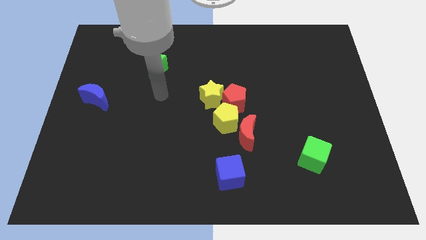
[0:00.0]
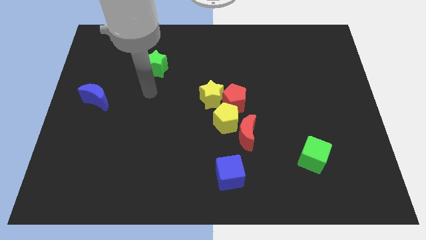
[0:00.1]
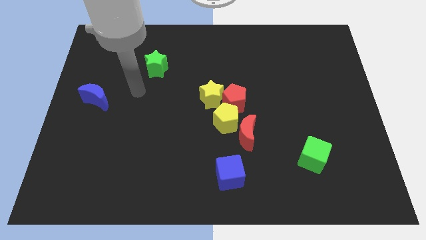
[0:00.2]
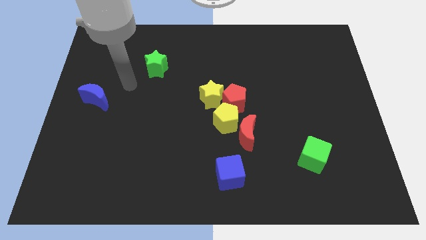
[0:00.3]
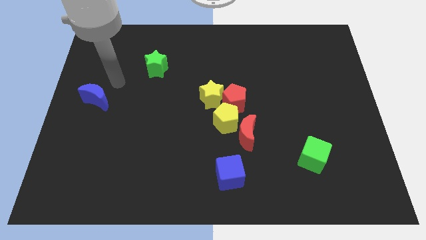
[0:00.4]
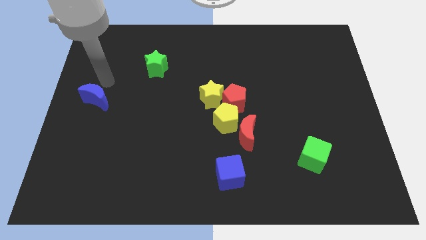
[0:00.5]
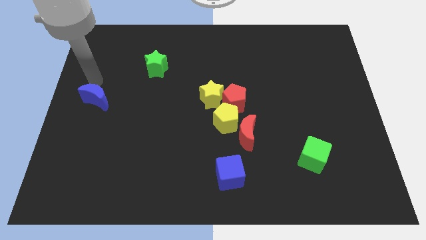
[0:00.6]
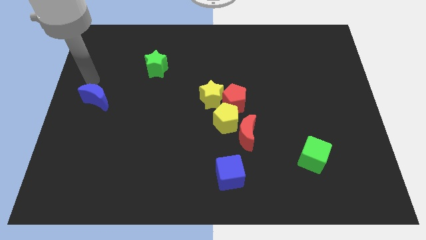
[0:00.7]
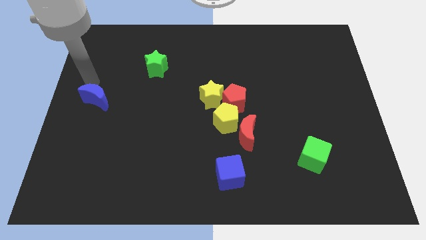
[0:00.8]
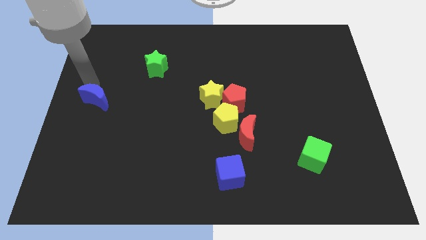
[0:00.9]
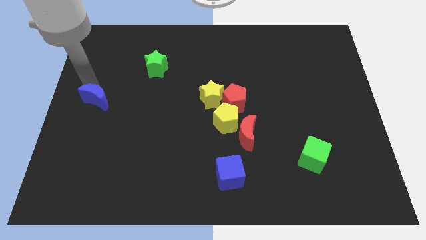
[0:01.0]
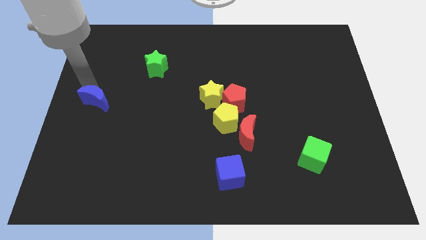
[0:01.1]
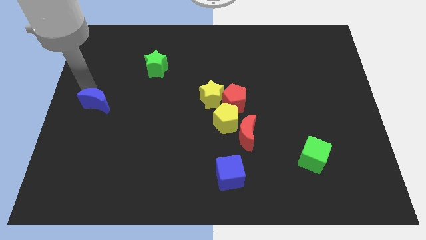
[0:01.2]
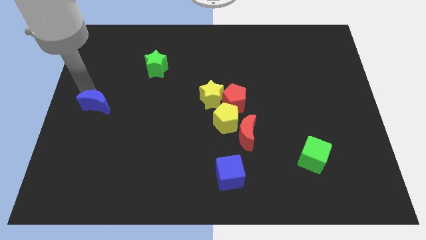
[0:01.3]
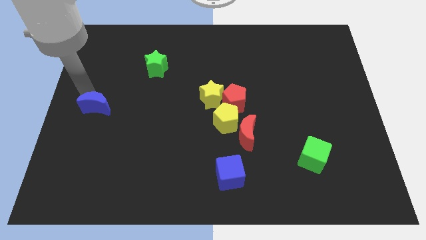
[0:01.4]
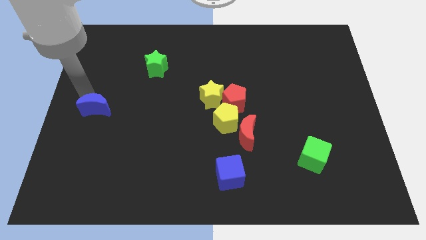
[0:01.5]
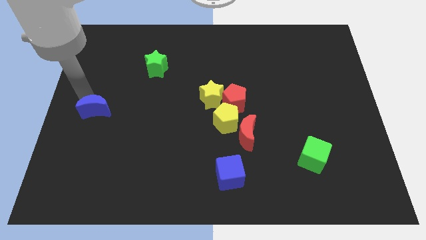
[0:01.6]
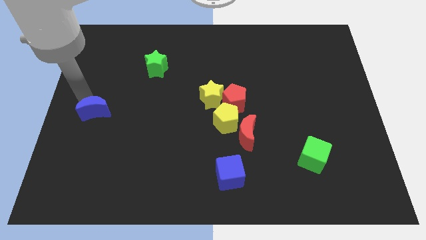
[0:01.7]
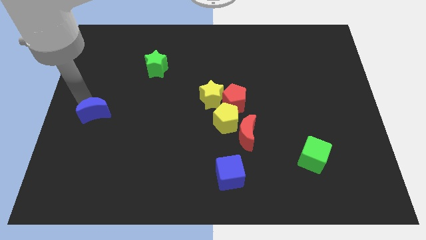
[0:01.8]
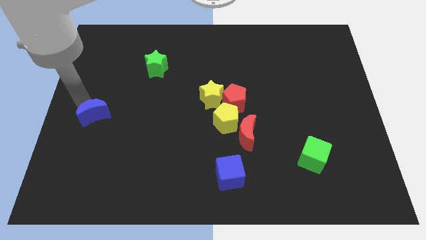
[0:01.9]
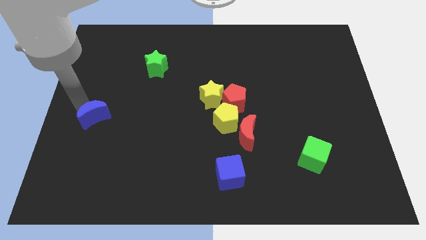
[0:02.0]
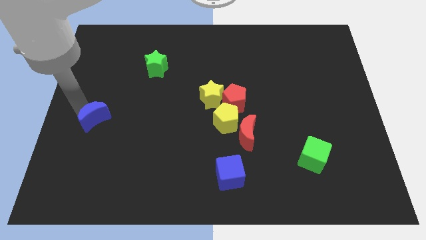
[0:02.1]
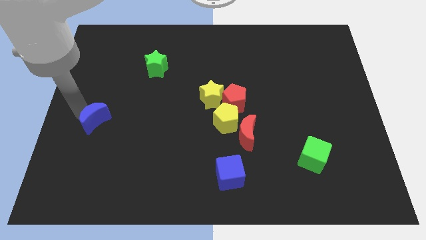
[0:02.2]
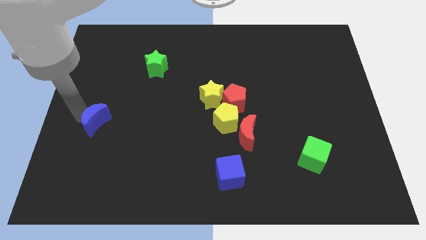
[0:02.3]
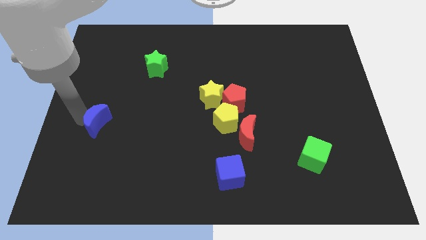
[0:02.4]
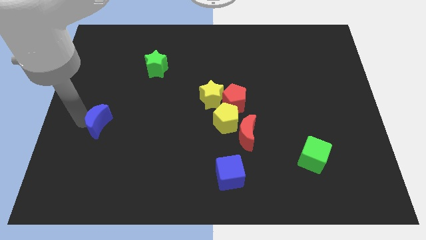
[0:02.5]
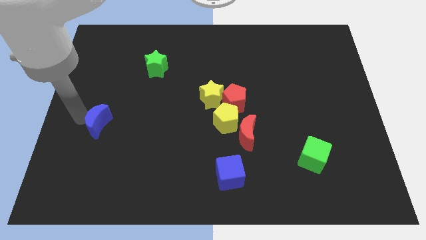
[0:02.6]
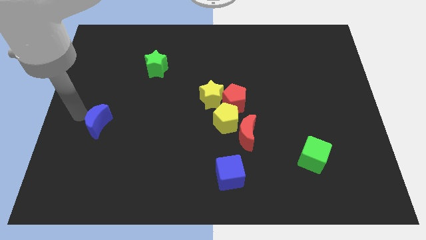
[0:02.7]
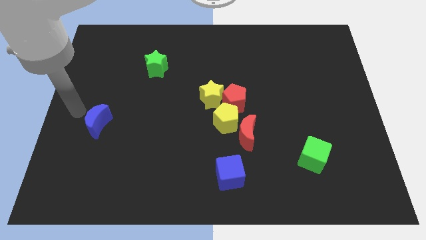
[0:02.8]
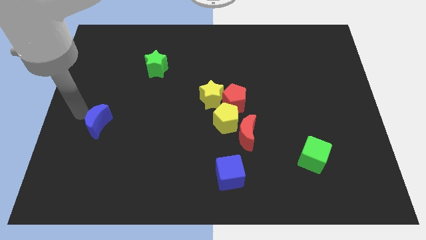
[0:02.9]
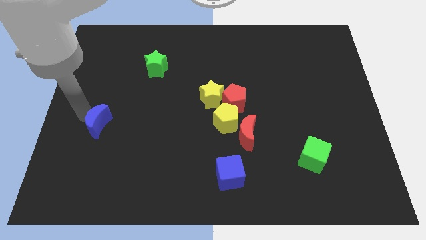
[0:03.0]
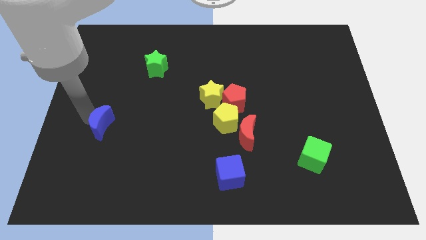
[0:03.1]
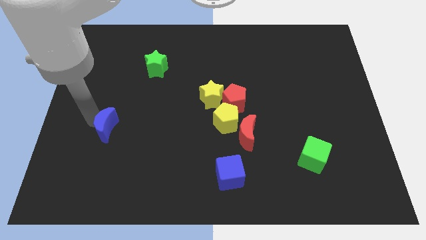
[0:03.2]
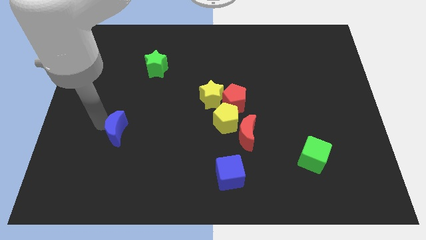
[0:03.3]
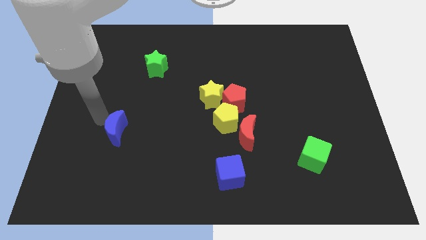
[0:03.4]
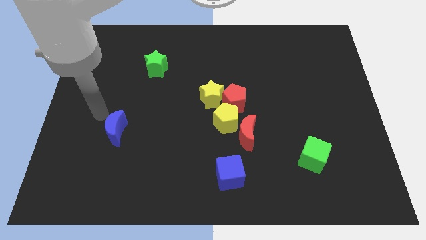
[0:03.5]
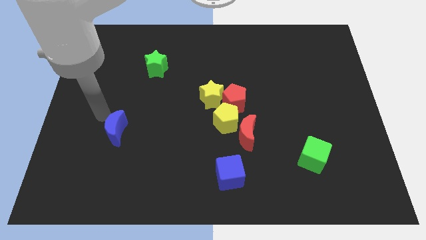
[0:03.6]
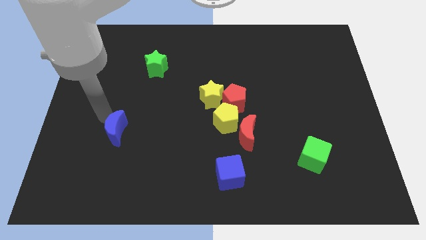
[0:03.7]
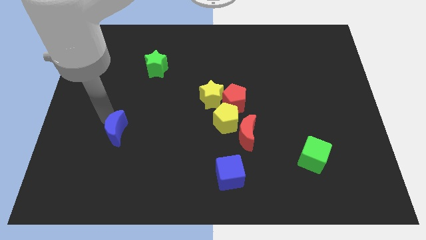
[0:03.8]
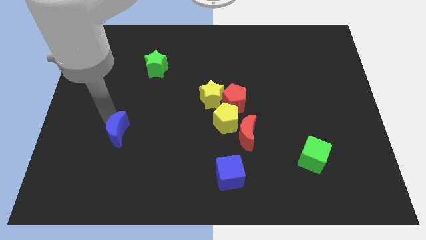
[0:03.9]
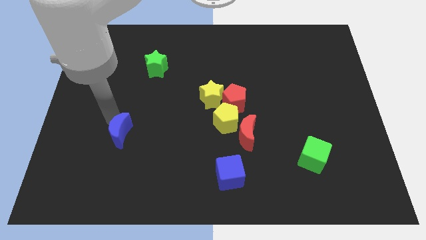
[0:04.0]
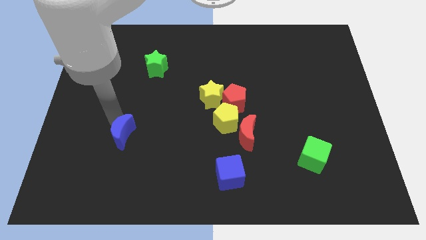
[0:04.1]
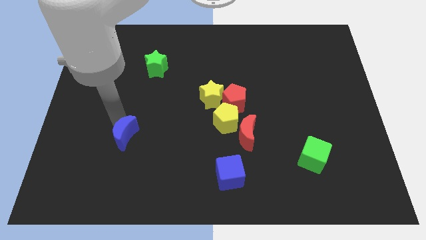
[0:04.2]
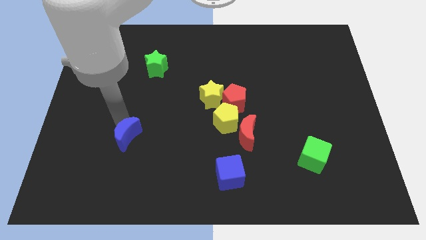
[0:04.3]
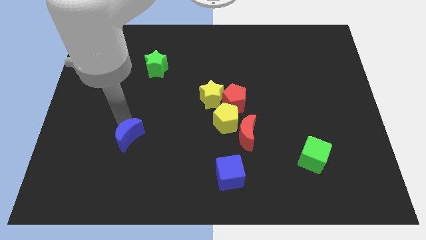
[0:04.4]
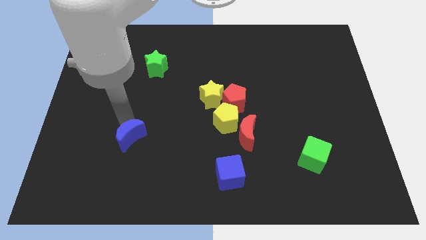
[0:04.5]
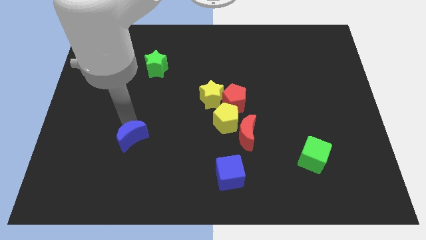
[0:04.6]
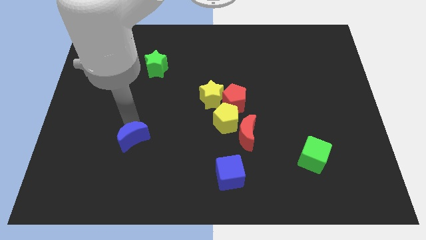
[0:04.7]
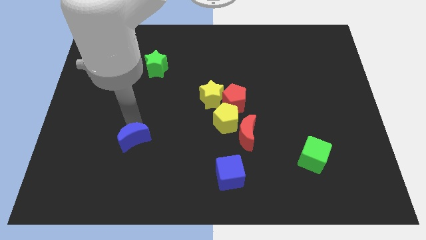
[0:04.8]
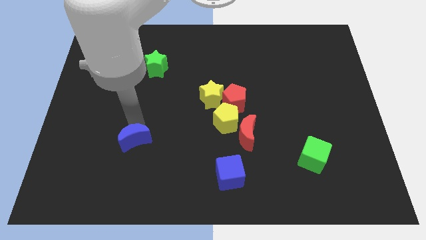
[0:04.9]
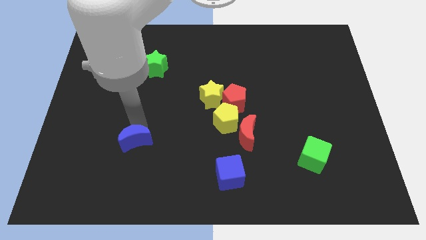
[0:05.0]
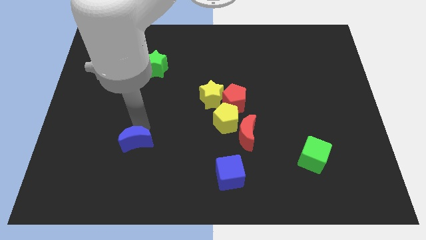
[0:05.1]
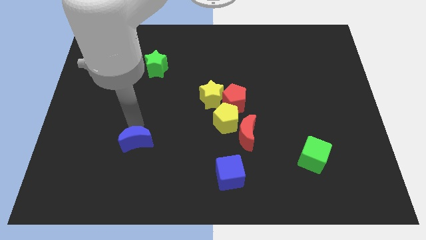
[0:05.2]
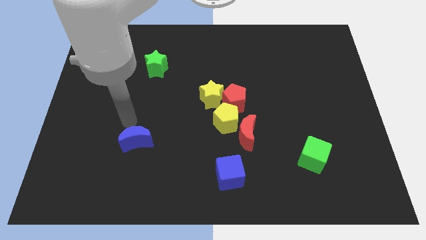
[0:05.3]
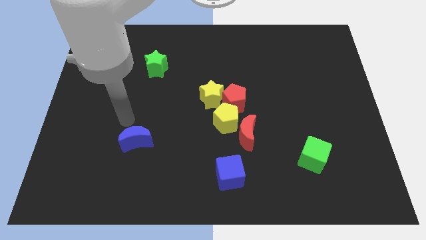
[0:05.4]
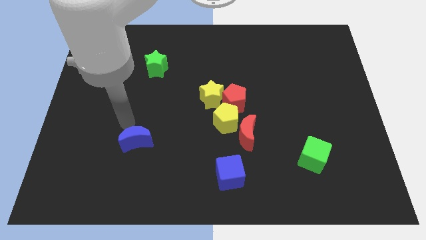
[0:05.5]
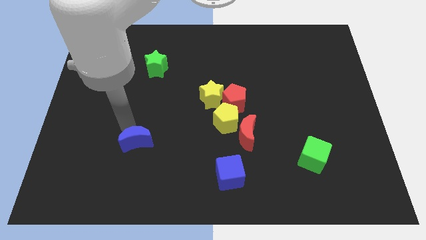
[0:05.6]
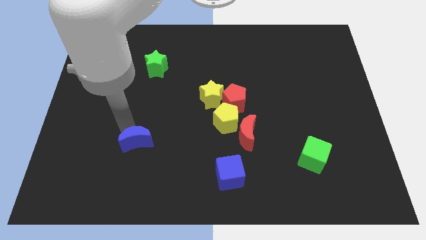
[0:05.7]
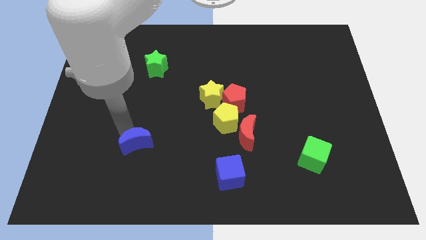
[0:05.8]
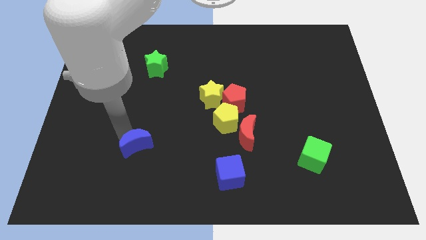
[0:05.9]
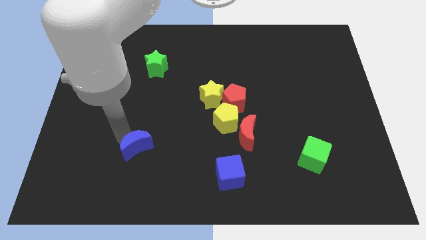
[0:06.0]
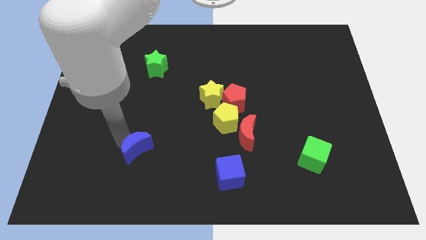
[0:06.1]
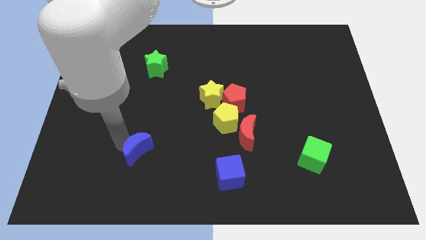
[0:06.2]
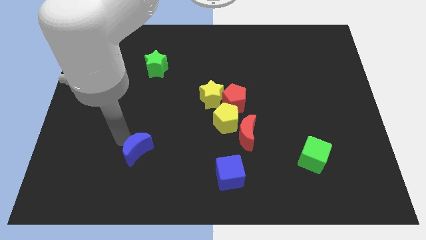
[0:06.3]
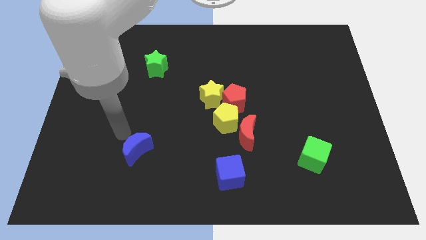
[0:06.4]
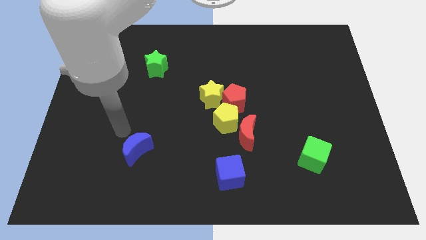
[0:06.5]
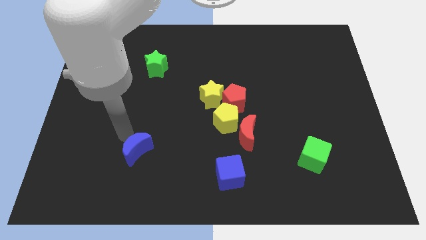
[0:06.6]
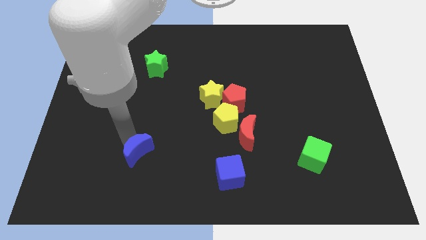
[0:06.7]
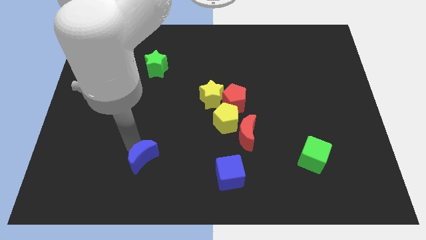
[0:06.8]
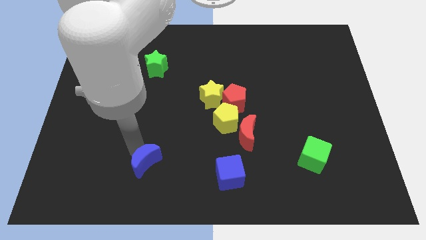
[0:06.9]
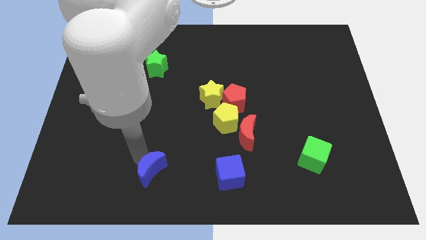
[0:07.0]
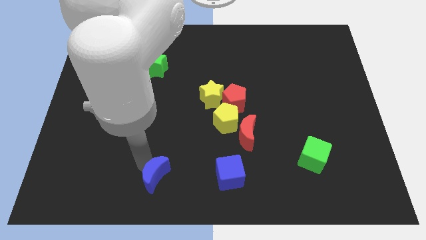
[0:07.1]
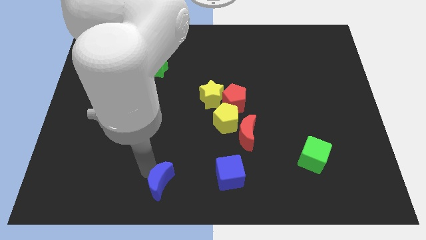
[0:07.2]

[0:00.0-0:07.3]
slide the blue moon to the bottom side
